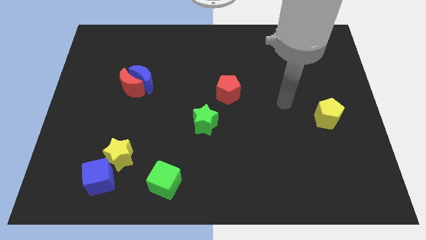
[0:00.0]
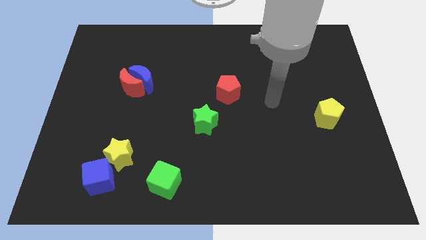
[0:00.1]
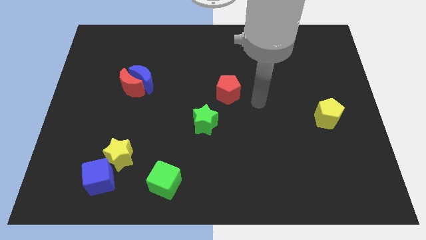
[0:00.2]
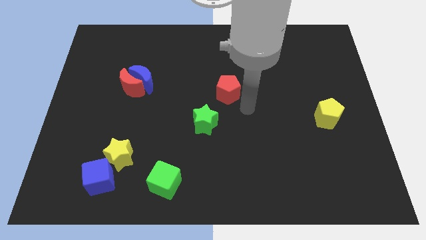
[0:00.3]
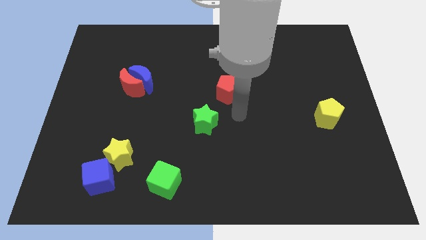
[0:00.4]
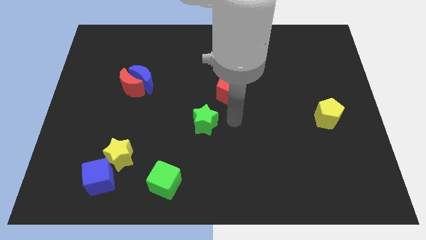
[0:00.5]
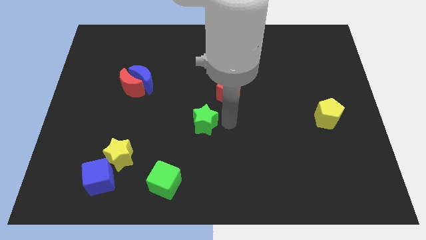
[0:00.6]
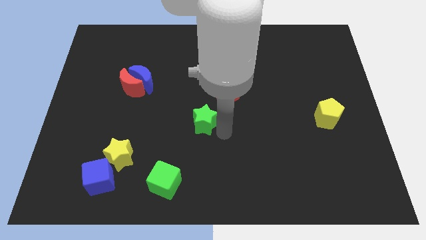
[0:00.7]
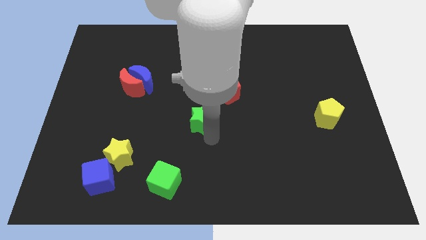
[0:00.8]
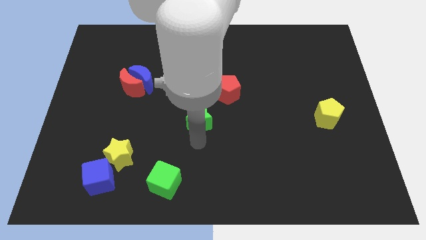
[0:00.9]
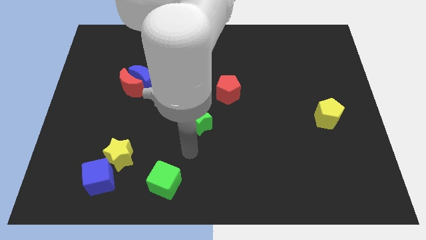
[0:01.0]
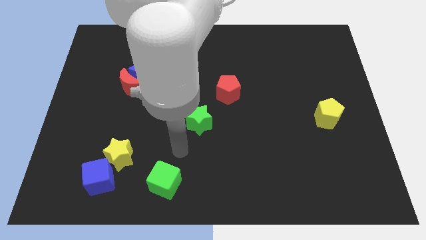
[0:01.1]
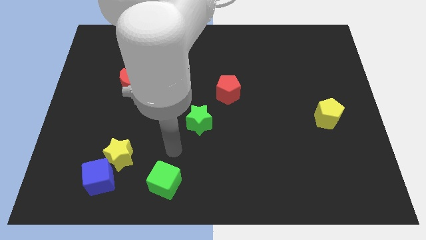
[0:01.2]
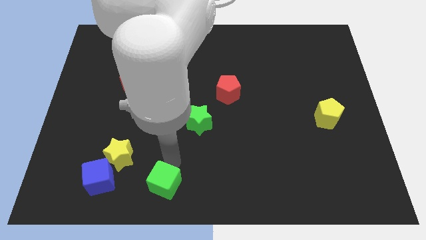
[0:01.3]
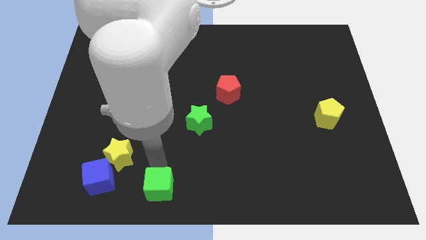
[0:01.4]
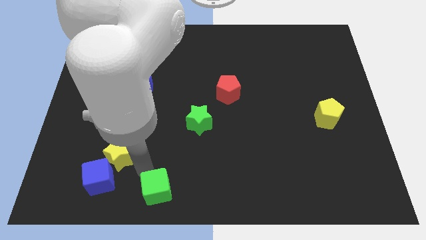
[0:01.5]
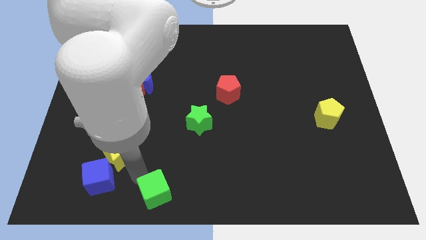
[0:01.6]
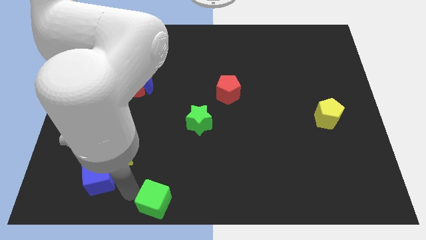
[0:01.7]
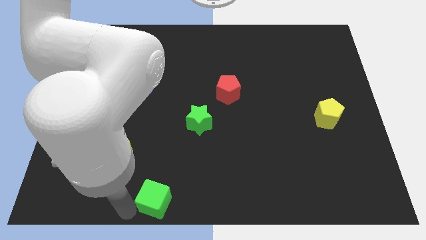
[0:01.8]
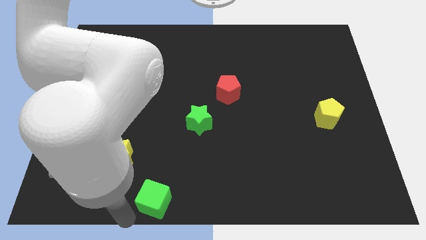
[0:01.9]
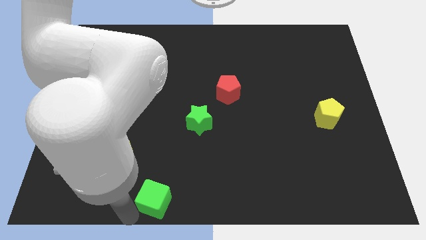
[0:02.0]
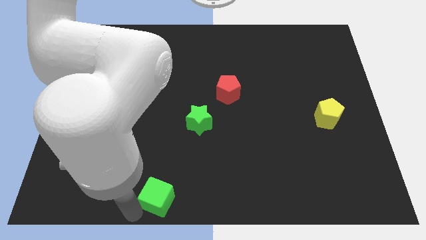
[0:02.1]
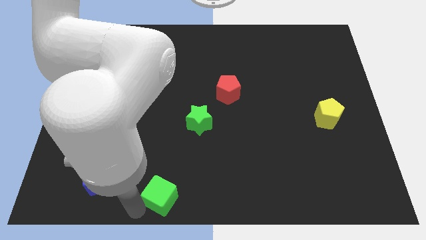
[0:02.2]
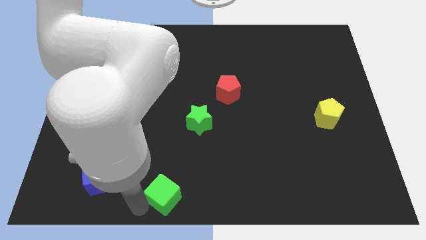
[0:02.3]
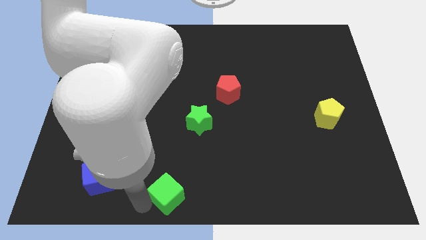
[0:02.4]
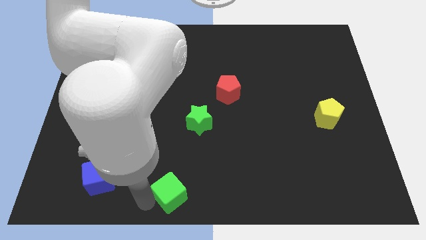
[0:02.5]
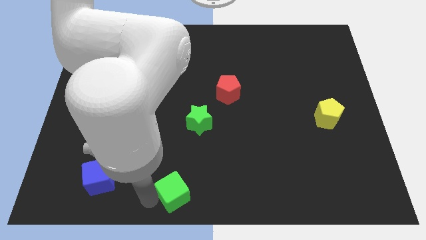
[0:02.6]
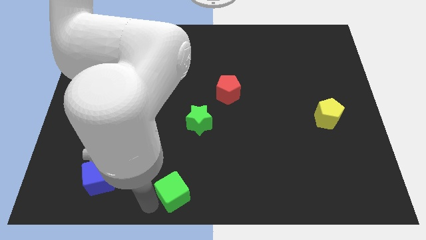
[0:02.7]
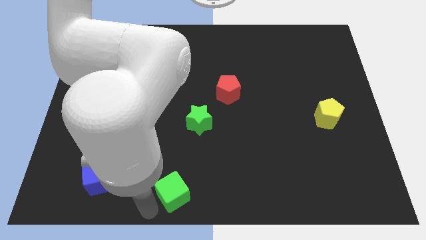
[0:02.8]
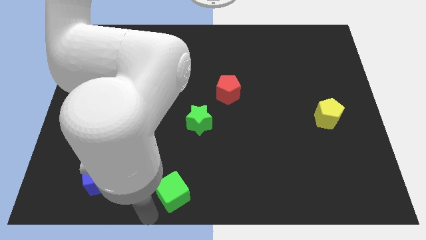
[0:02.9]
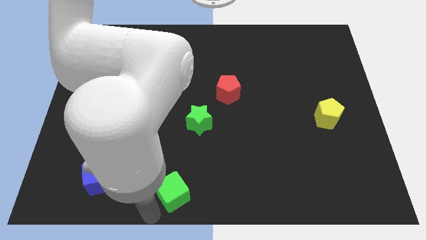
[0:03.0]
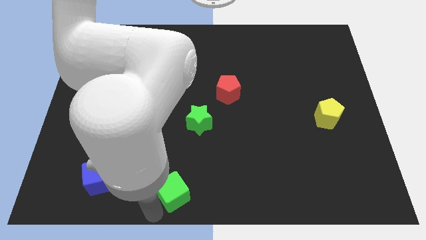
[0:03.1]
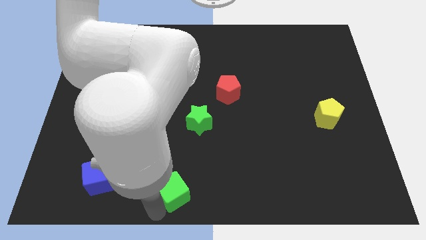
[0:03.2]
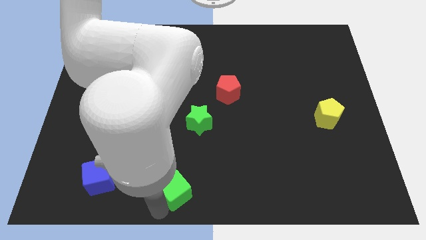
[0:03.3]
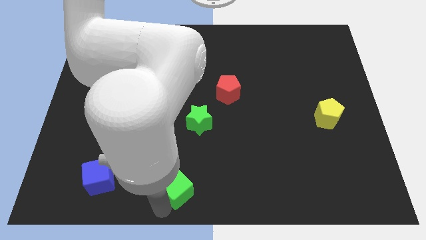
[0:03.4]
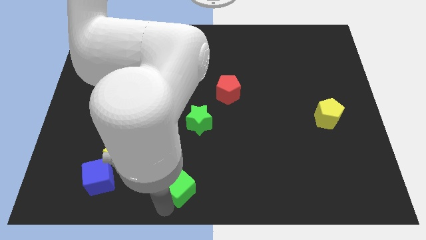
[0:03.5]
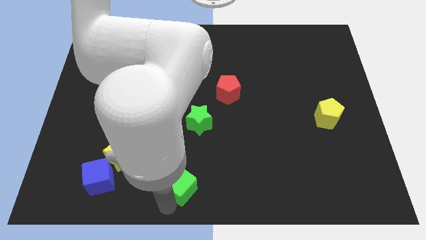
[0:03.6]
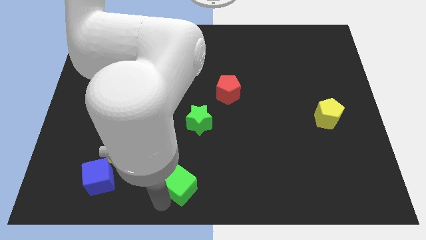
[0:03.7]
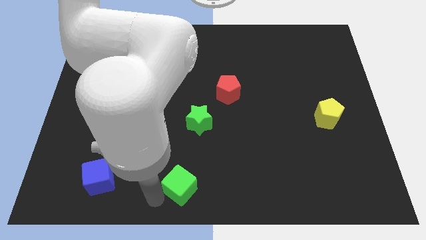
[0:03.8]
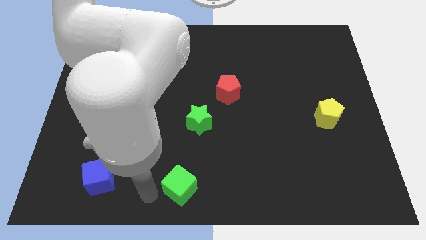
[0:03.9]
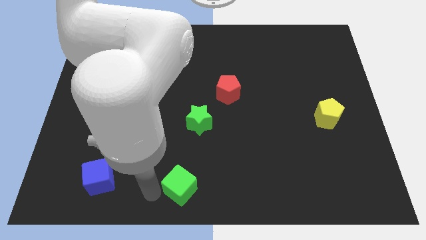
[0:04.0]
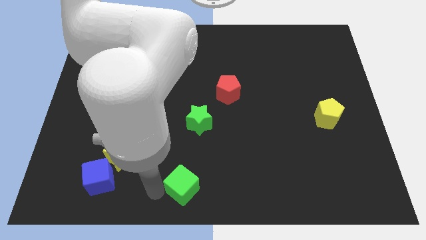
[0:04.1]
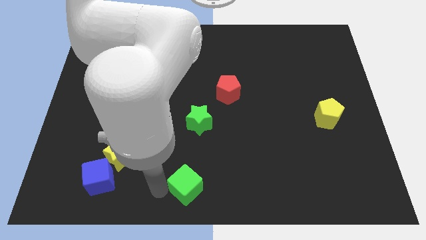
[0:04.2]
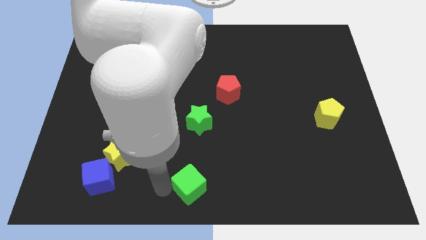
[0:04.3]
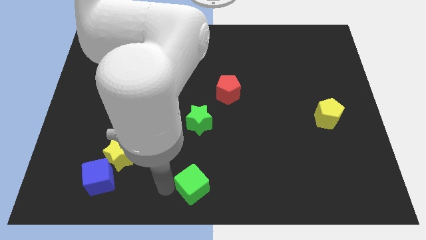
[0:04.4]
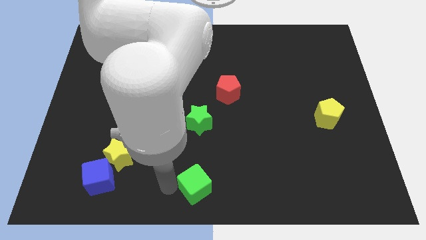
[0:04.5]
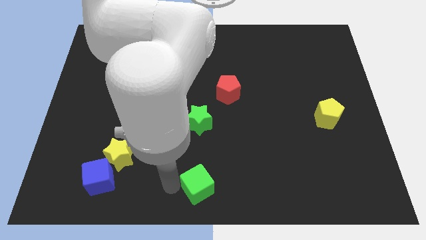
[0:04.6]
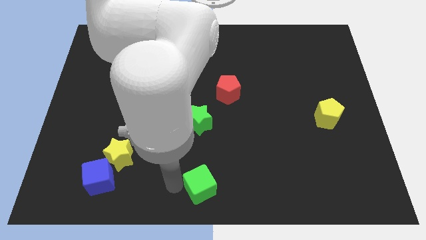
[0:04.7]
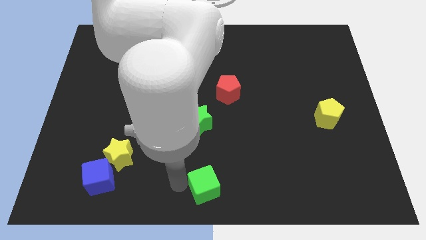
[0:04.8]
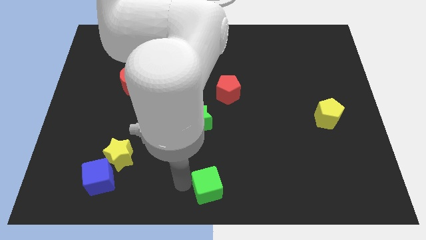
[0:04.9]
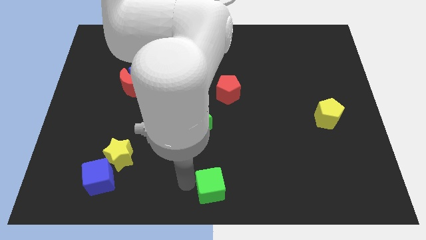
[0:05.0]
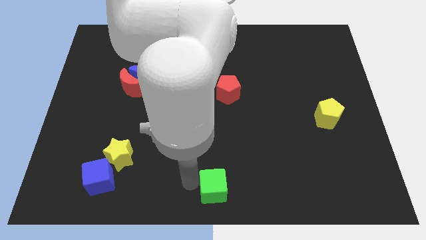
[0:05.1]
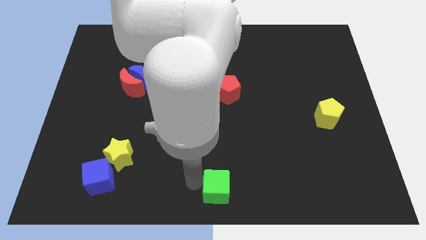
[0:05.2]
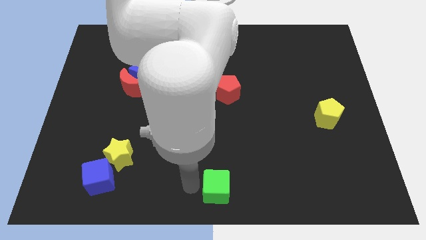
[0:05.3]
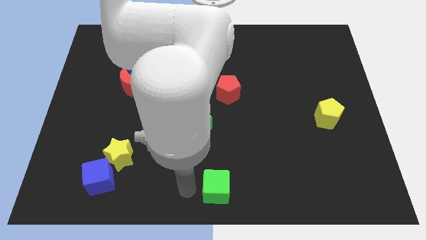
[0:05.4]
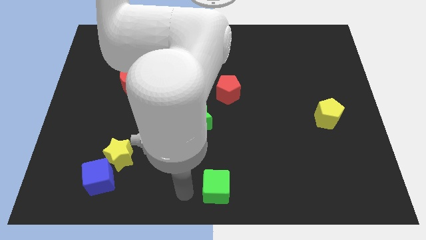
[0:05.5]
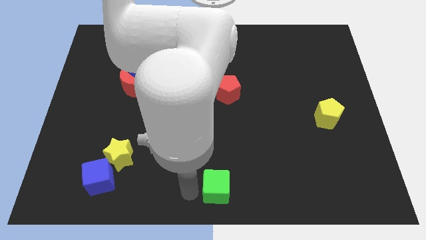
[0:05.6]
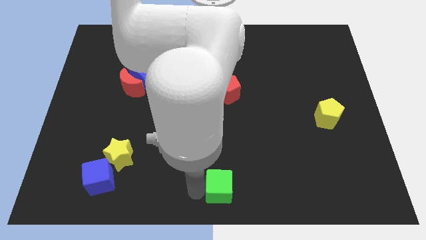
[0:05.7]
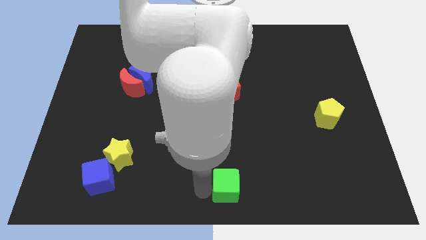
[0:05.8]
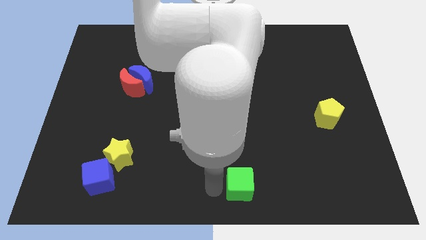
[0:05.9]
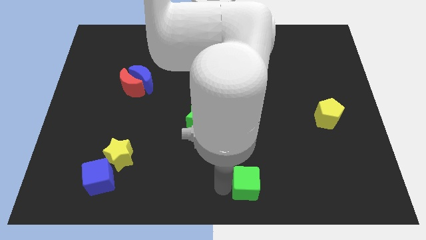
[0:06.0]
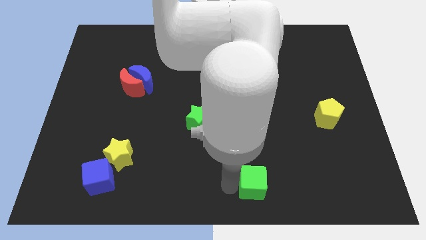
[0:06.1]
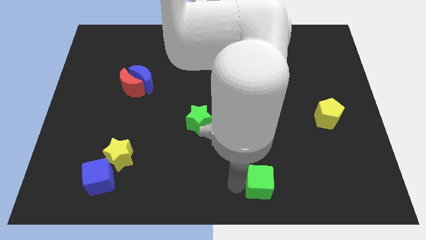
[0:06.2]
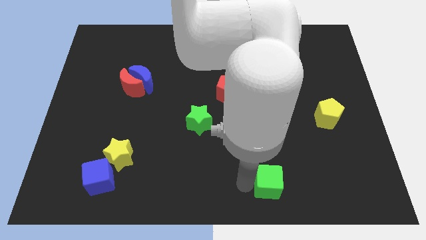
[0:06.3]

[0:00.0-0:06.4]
push the green cube to the right

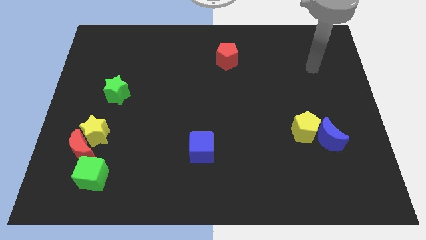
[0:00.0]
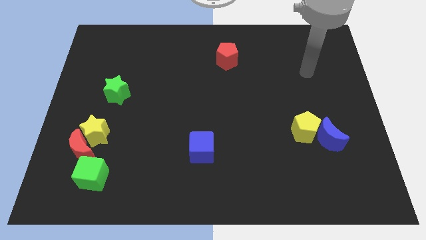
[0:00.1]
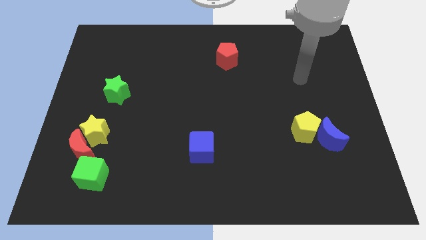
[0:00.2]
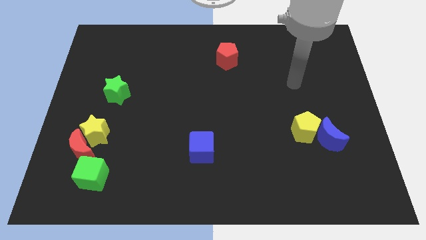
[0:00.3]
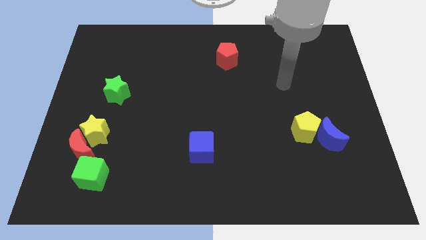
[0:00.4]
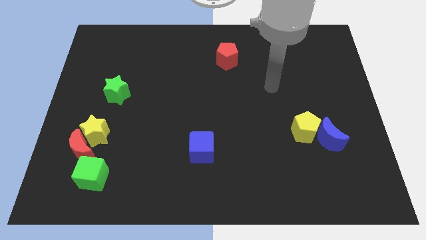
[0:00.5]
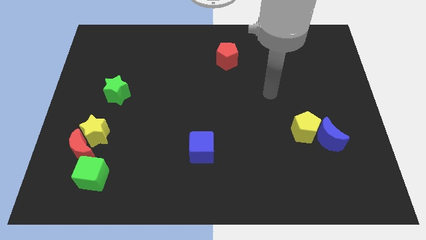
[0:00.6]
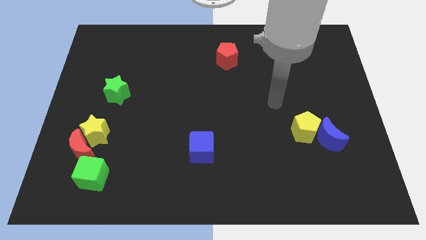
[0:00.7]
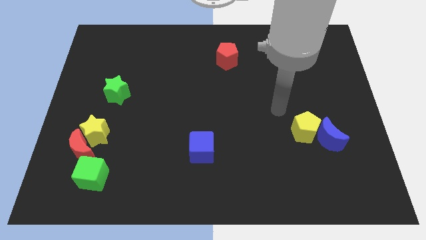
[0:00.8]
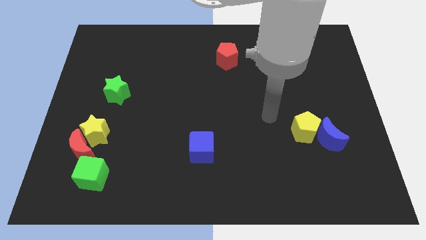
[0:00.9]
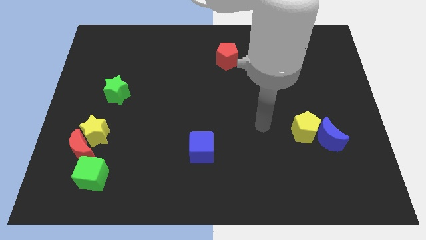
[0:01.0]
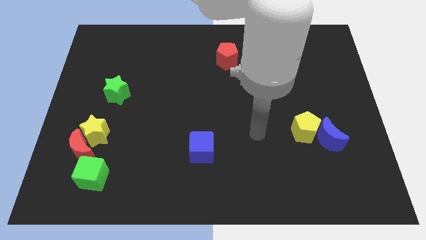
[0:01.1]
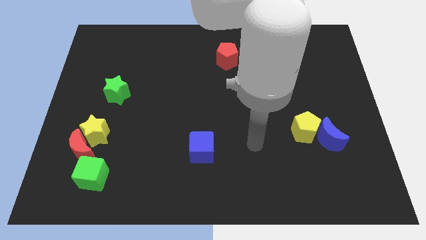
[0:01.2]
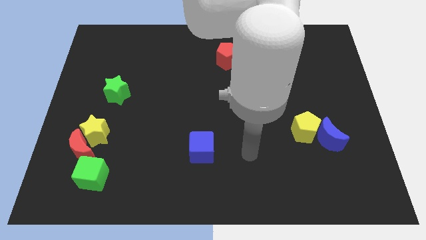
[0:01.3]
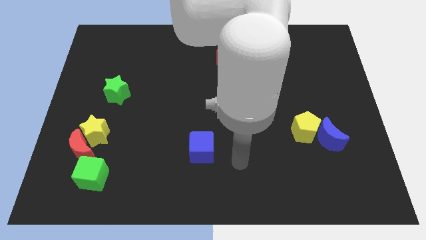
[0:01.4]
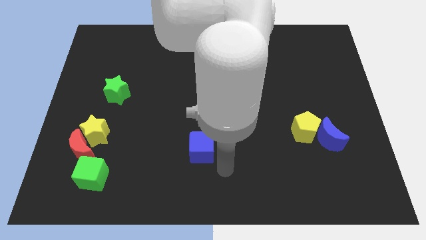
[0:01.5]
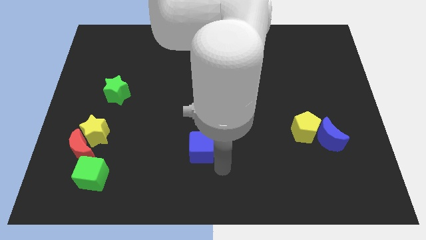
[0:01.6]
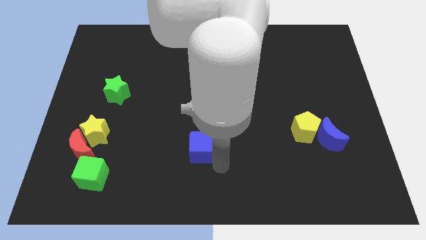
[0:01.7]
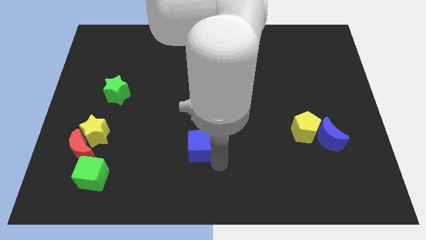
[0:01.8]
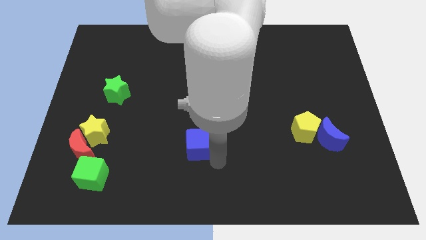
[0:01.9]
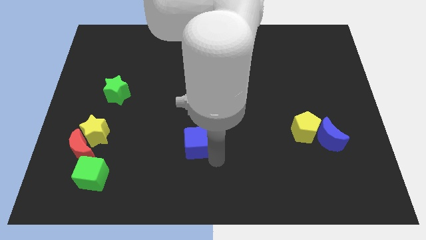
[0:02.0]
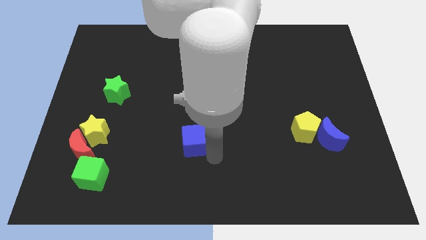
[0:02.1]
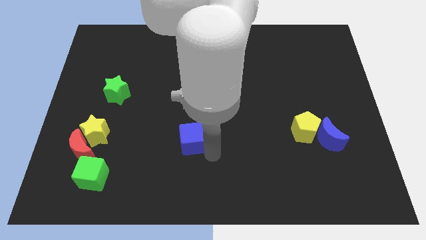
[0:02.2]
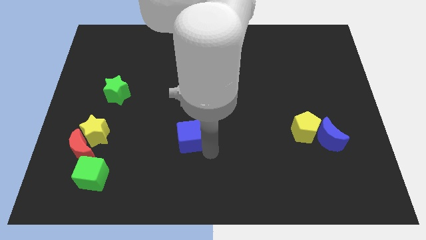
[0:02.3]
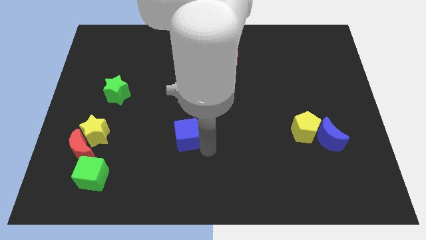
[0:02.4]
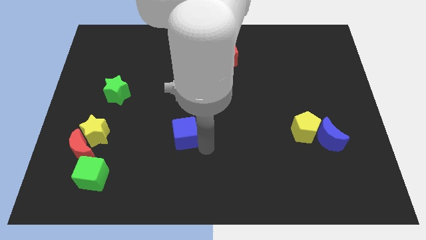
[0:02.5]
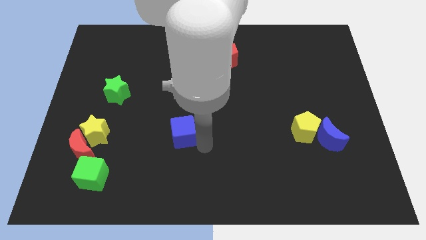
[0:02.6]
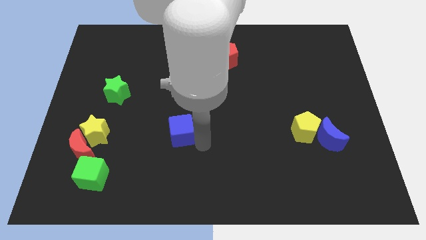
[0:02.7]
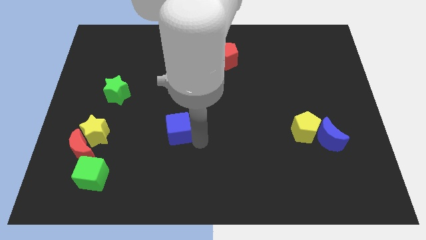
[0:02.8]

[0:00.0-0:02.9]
move the blue cube diagonally upwards and to the left a little bit
